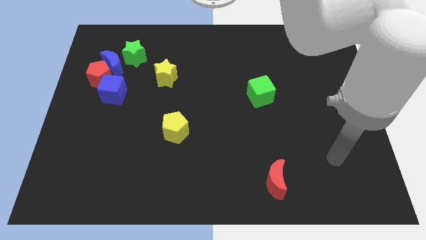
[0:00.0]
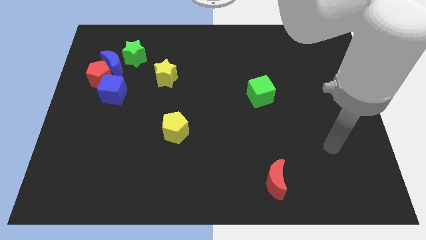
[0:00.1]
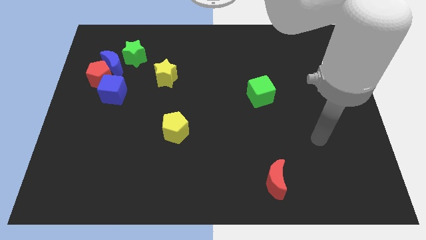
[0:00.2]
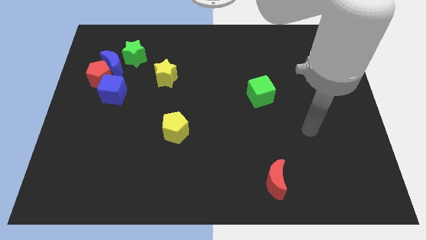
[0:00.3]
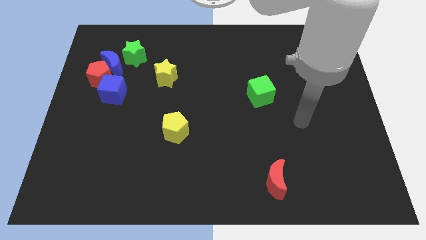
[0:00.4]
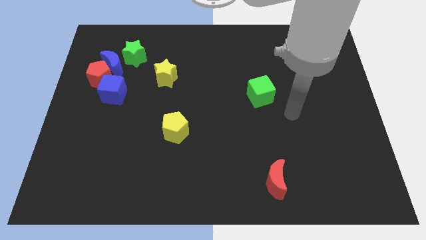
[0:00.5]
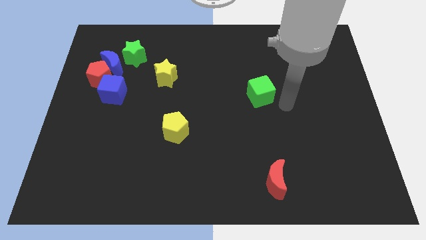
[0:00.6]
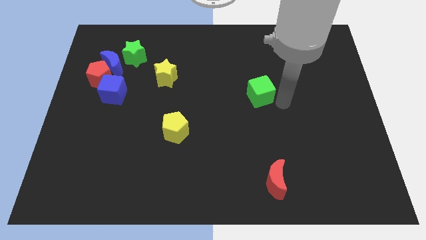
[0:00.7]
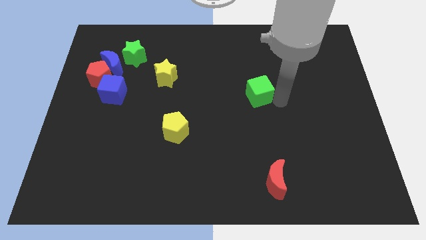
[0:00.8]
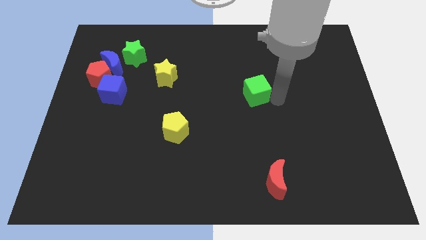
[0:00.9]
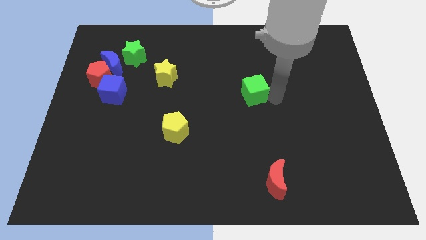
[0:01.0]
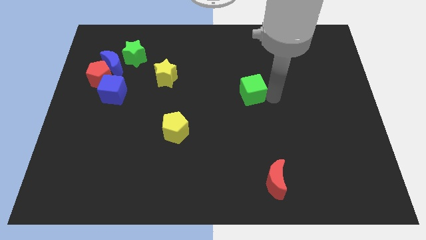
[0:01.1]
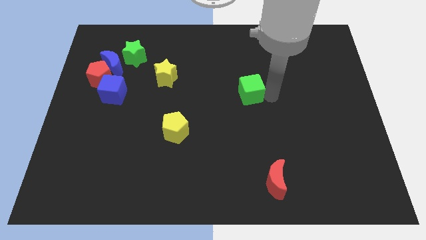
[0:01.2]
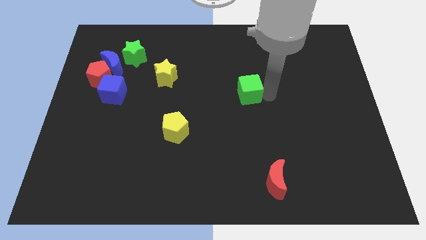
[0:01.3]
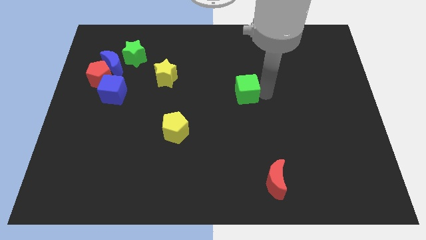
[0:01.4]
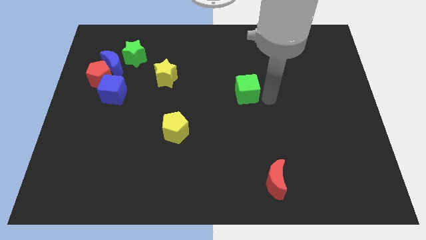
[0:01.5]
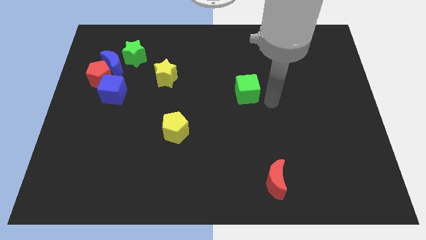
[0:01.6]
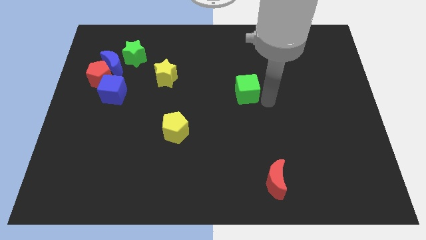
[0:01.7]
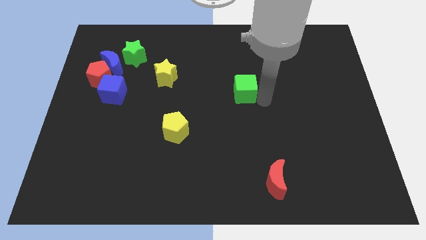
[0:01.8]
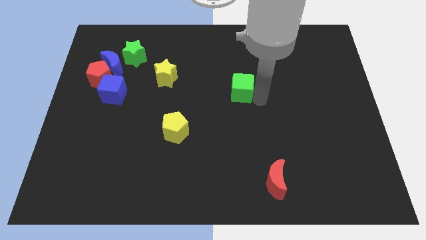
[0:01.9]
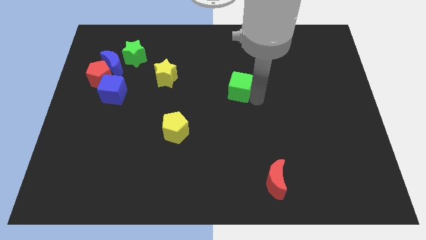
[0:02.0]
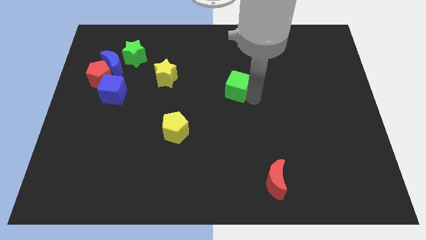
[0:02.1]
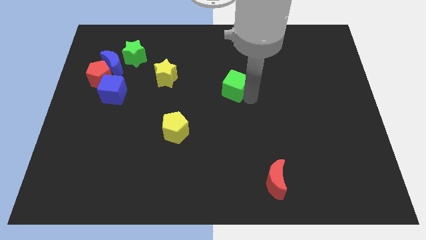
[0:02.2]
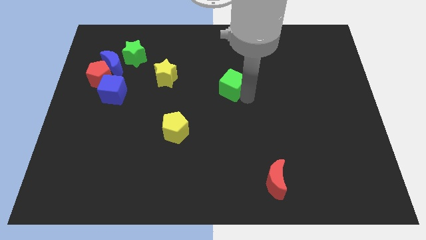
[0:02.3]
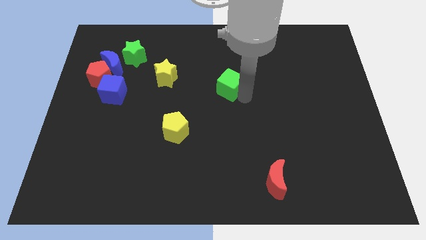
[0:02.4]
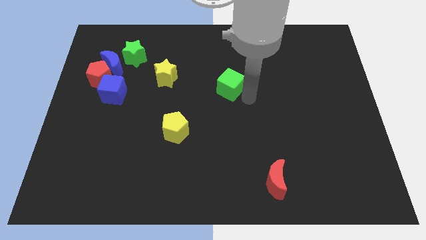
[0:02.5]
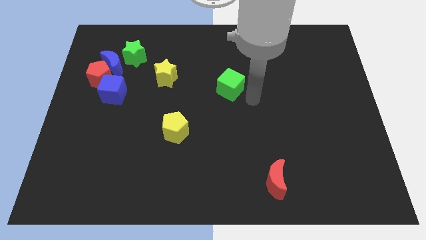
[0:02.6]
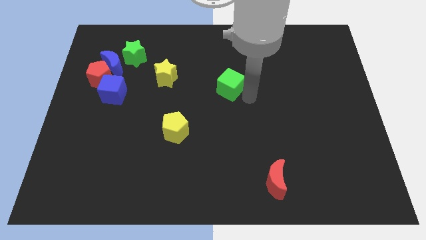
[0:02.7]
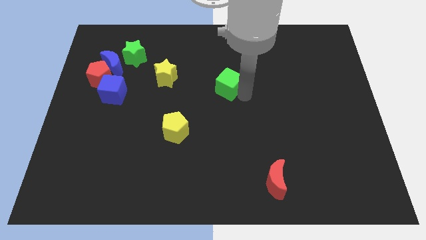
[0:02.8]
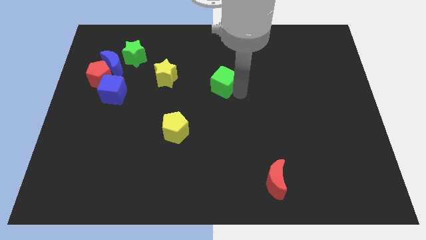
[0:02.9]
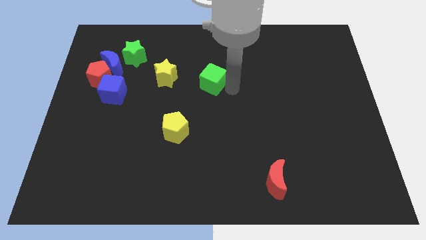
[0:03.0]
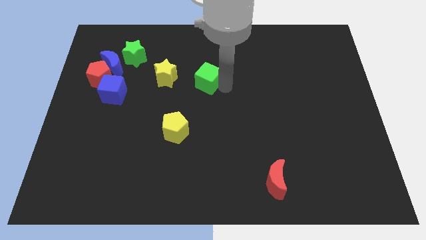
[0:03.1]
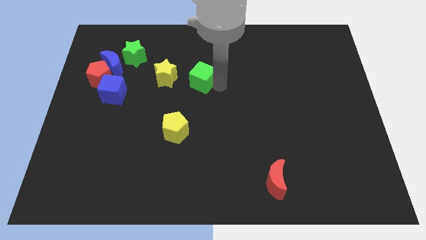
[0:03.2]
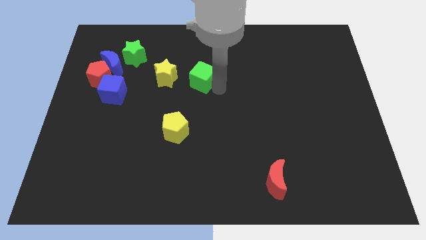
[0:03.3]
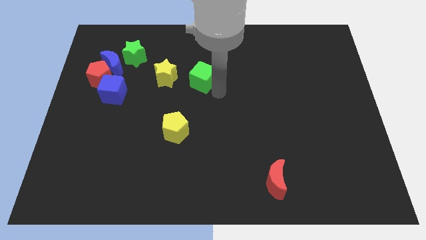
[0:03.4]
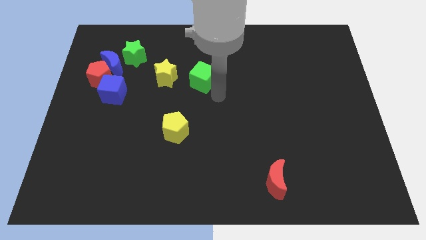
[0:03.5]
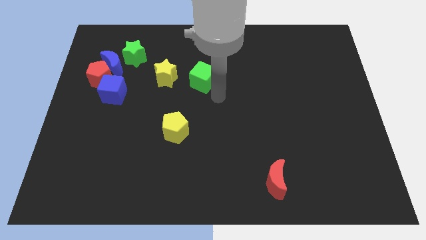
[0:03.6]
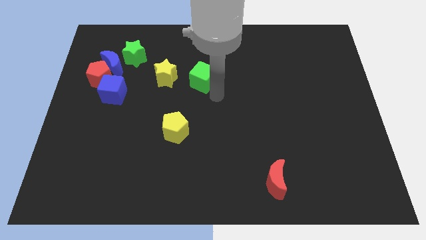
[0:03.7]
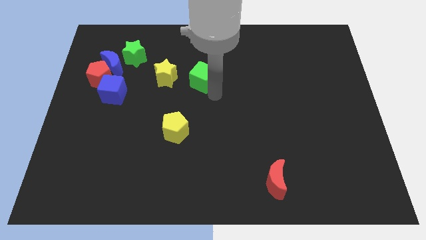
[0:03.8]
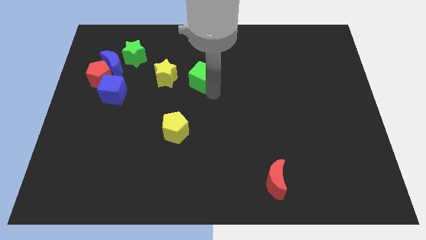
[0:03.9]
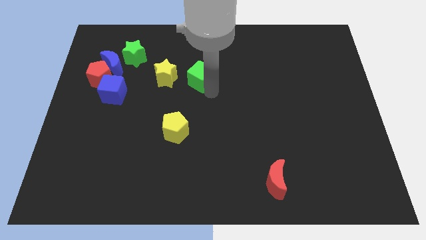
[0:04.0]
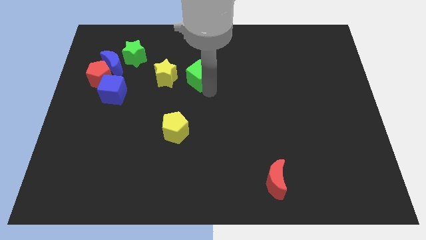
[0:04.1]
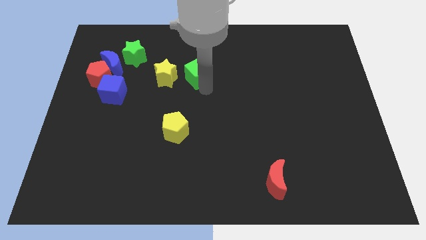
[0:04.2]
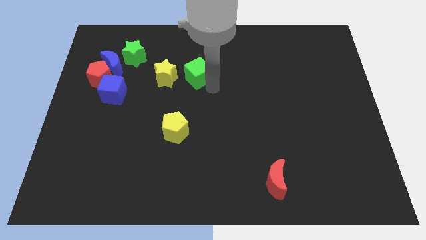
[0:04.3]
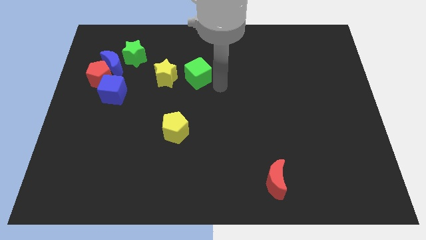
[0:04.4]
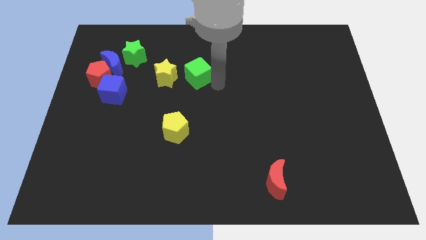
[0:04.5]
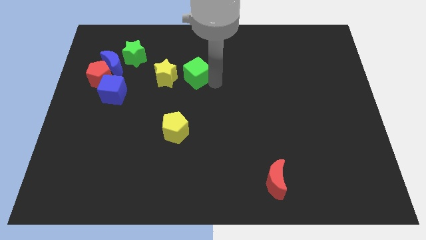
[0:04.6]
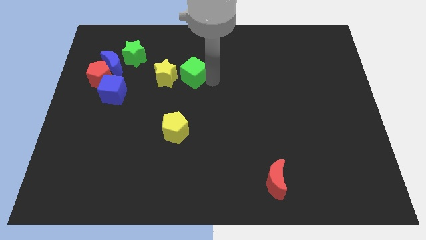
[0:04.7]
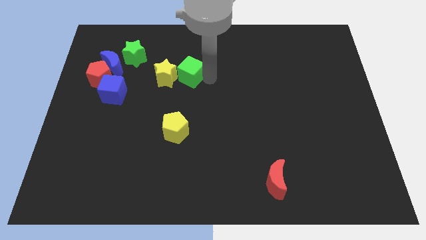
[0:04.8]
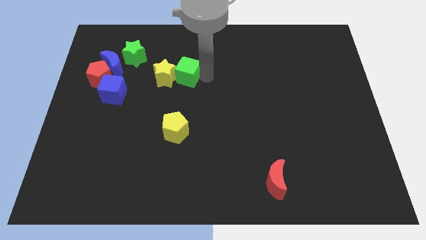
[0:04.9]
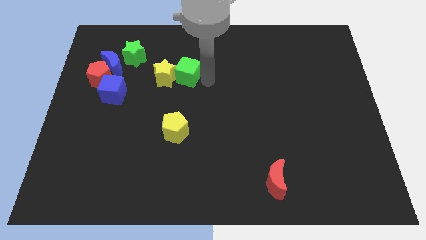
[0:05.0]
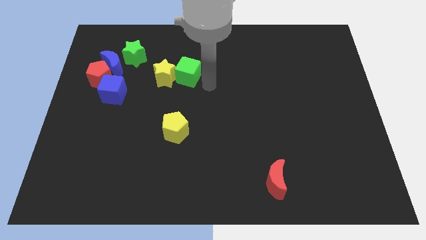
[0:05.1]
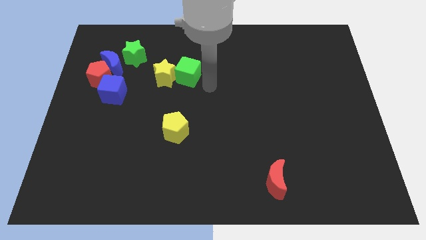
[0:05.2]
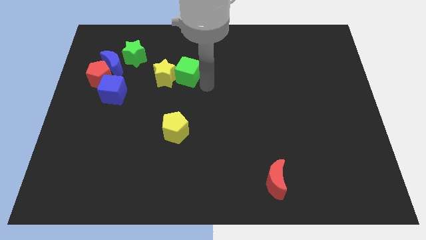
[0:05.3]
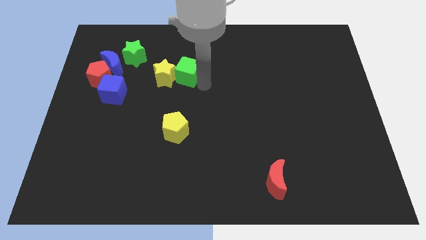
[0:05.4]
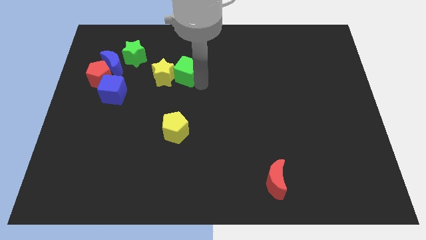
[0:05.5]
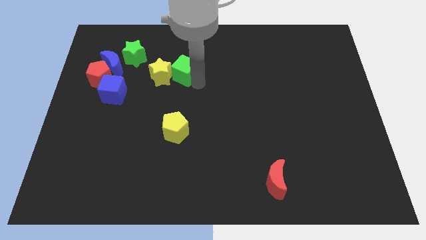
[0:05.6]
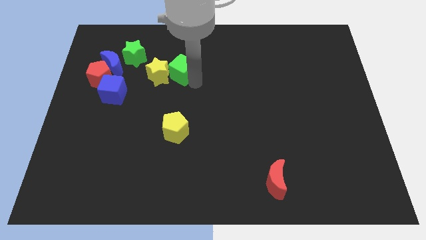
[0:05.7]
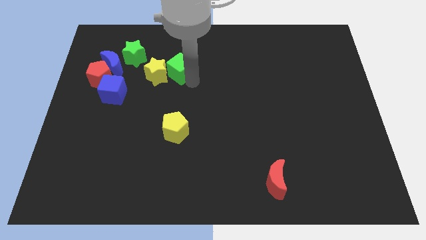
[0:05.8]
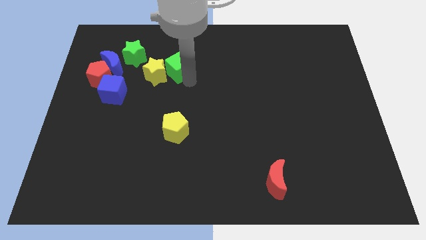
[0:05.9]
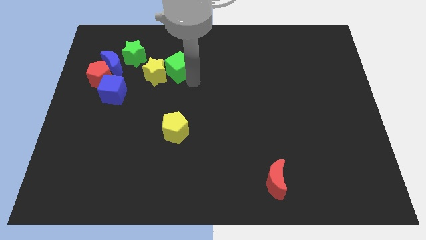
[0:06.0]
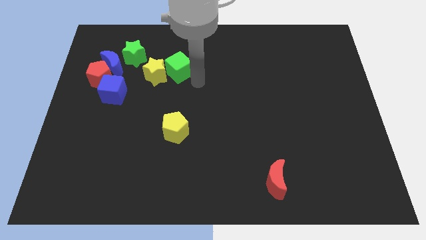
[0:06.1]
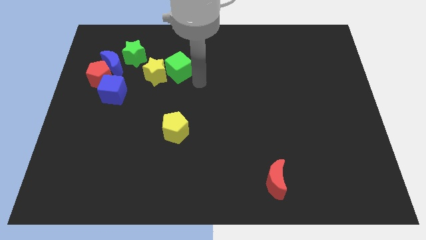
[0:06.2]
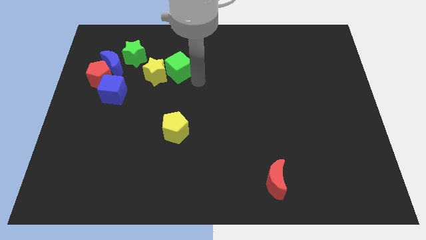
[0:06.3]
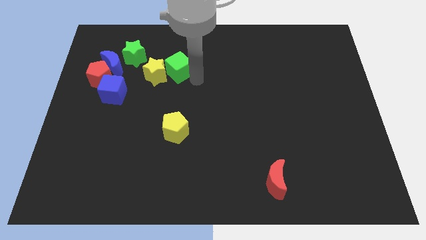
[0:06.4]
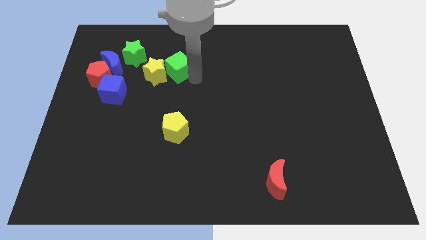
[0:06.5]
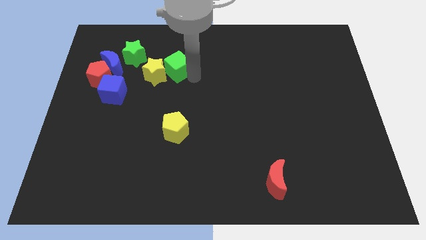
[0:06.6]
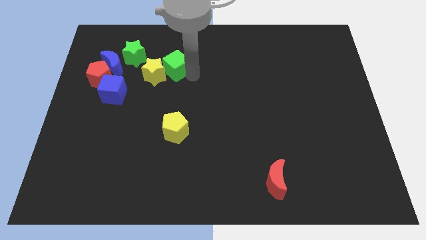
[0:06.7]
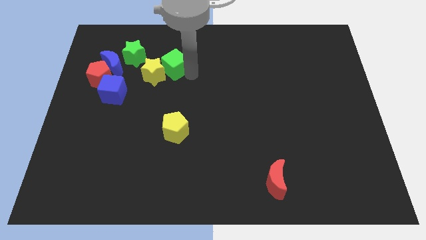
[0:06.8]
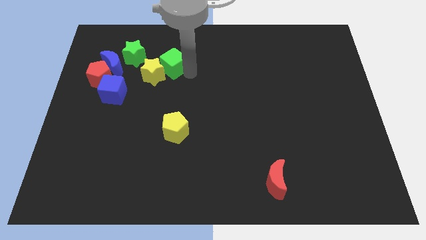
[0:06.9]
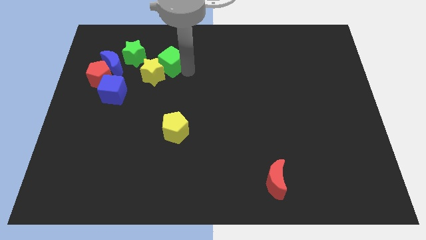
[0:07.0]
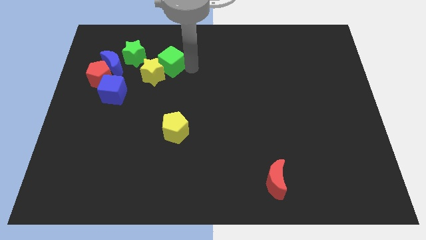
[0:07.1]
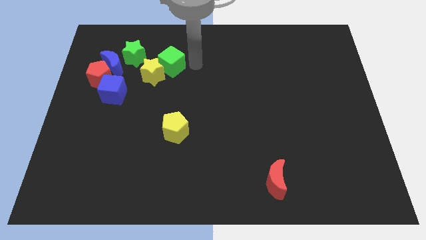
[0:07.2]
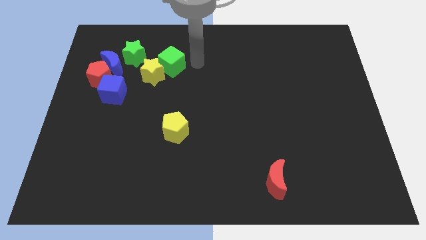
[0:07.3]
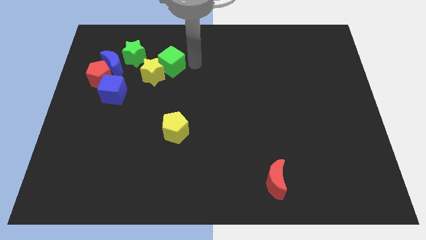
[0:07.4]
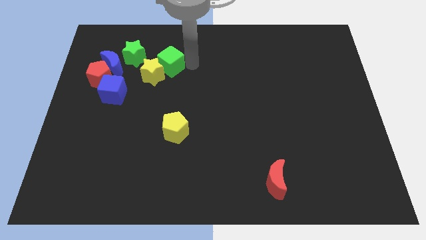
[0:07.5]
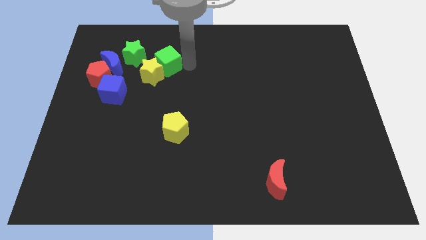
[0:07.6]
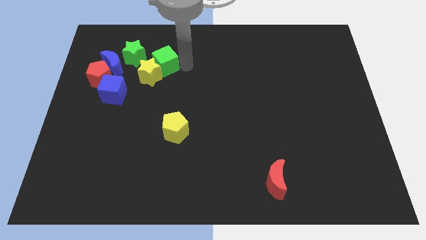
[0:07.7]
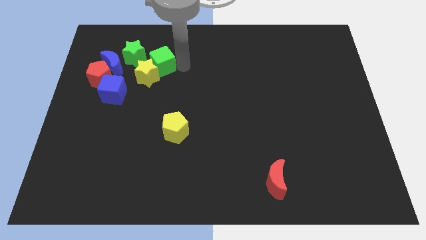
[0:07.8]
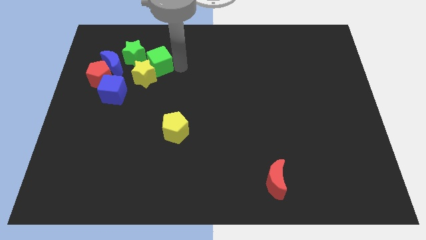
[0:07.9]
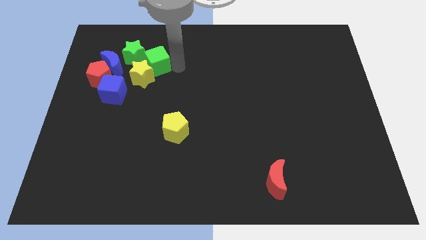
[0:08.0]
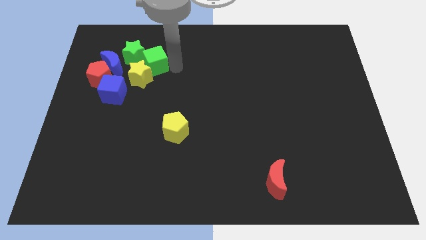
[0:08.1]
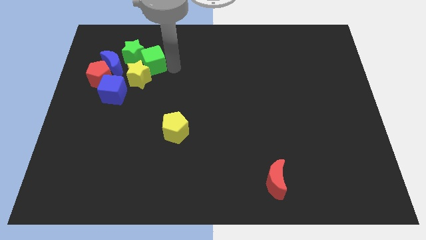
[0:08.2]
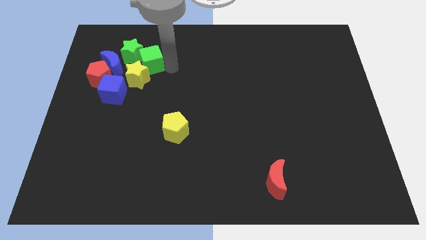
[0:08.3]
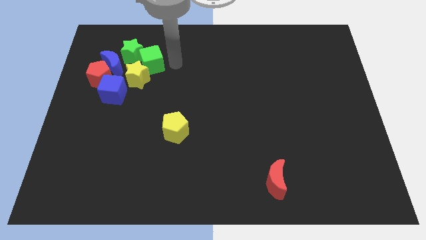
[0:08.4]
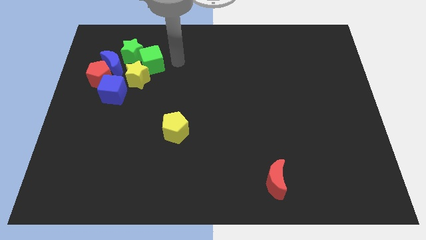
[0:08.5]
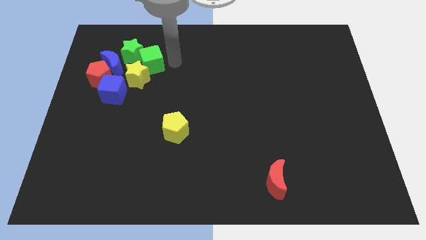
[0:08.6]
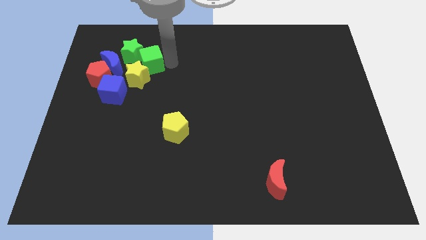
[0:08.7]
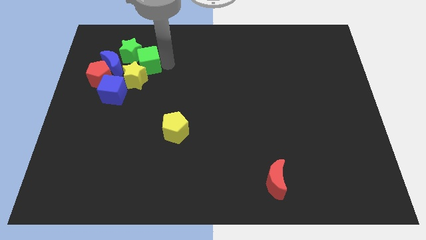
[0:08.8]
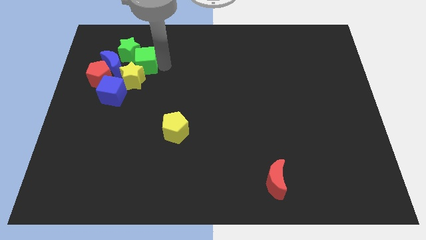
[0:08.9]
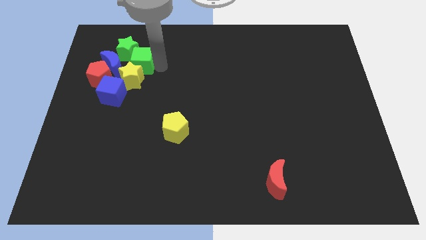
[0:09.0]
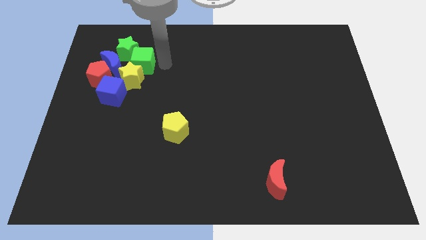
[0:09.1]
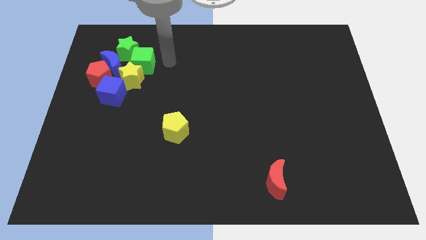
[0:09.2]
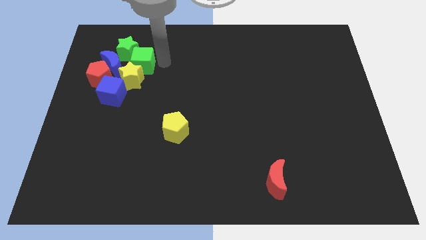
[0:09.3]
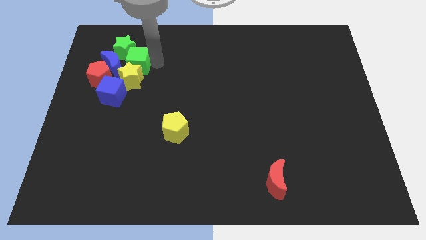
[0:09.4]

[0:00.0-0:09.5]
push the green cube next to the blue moon
